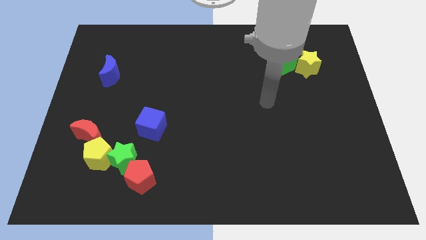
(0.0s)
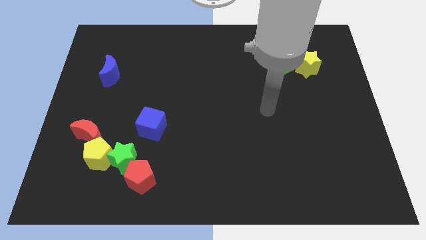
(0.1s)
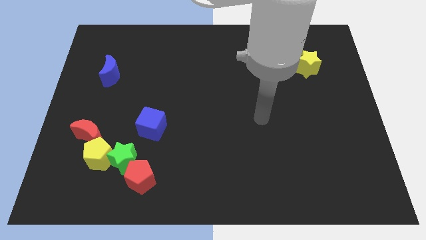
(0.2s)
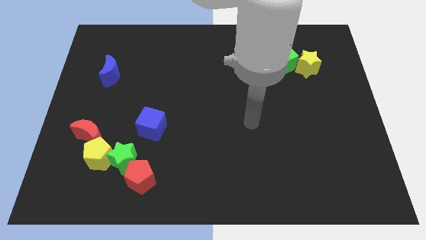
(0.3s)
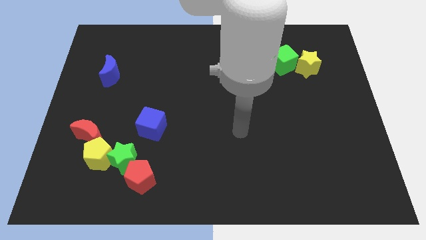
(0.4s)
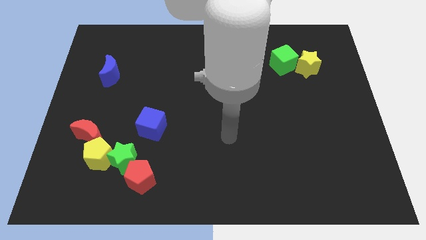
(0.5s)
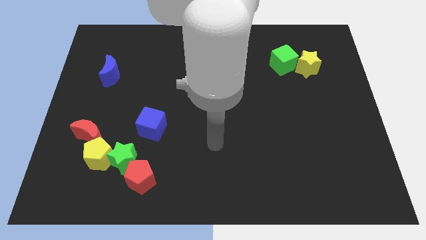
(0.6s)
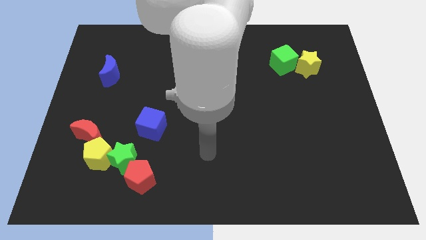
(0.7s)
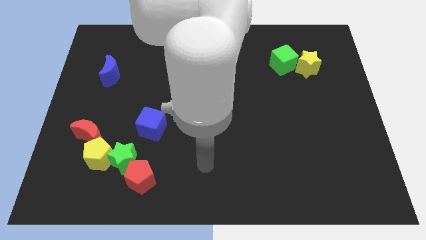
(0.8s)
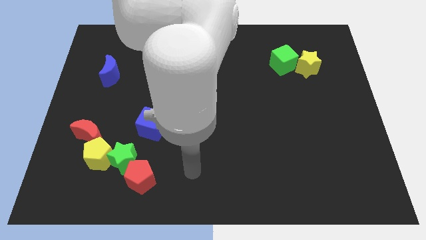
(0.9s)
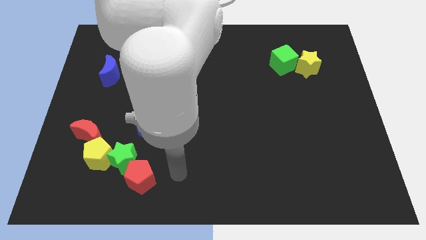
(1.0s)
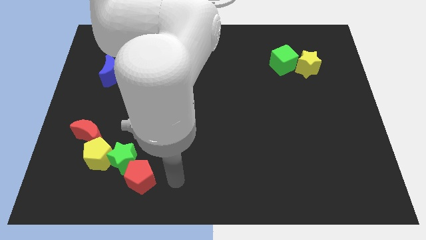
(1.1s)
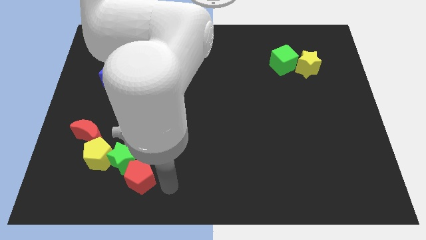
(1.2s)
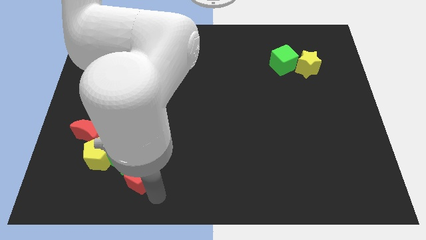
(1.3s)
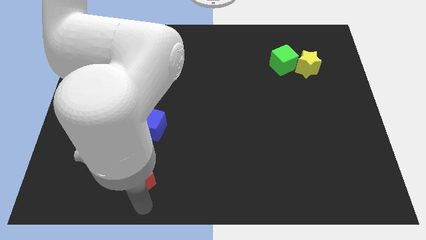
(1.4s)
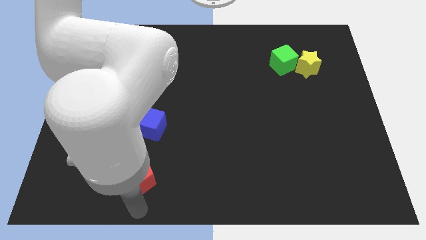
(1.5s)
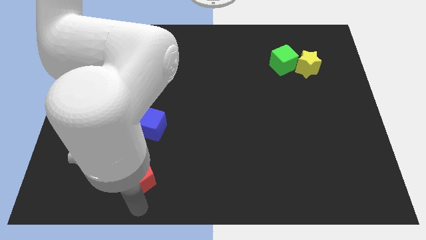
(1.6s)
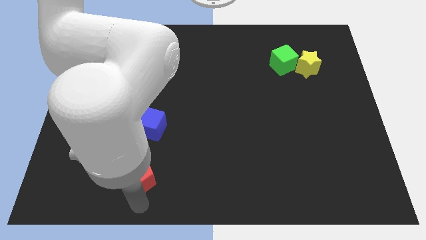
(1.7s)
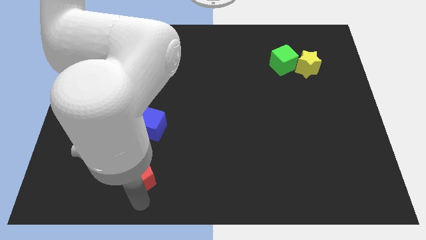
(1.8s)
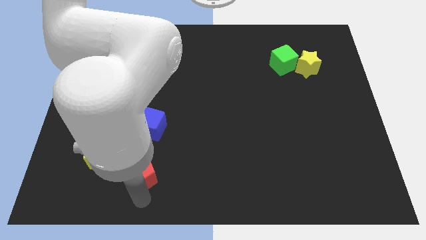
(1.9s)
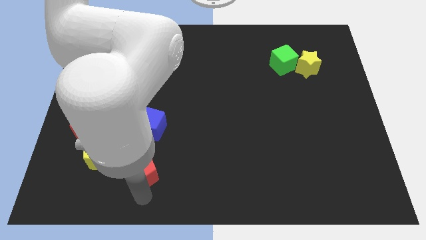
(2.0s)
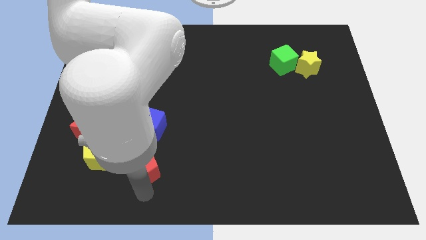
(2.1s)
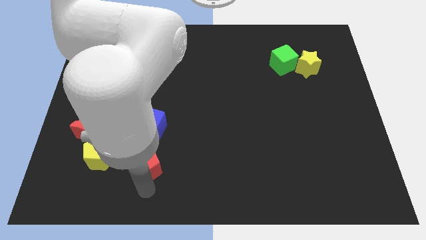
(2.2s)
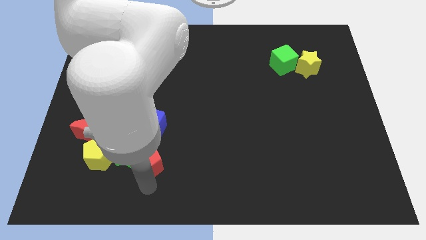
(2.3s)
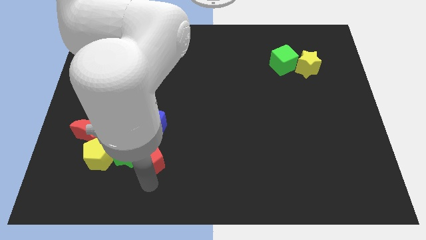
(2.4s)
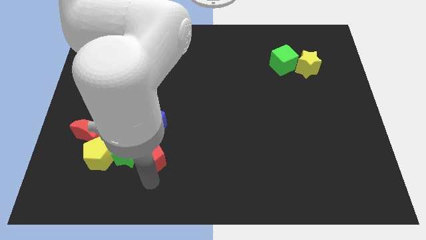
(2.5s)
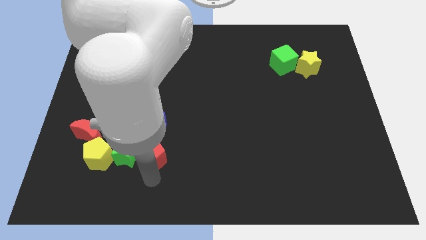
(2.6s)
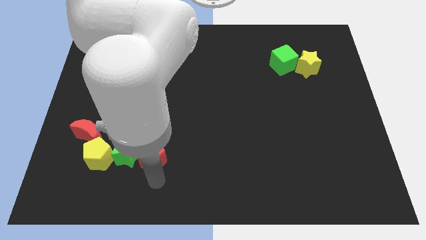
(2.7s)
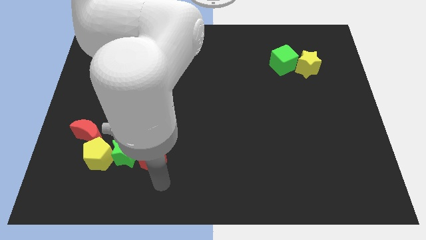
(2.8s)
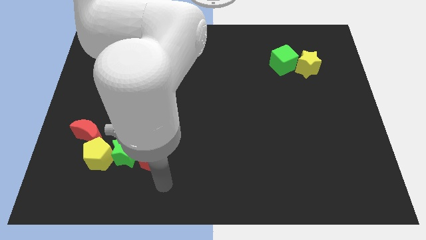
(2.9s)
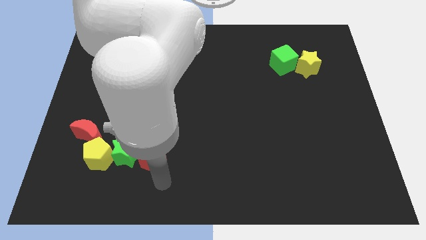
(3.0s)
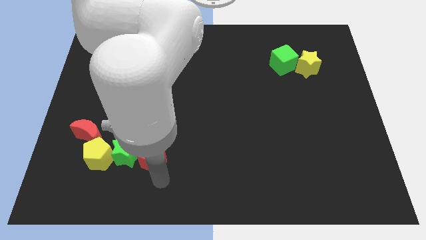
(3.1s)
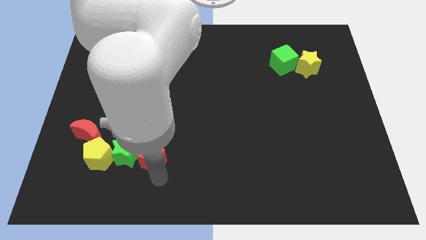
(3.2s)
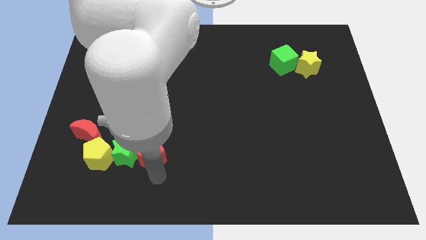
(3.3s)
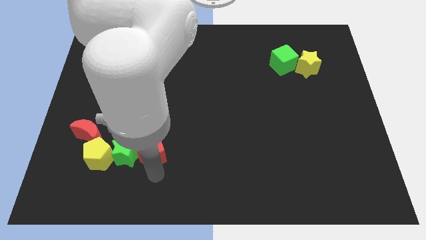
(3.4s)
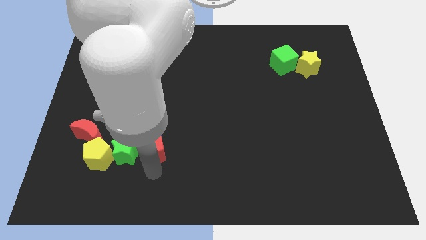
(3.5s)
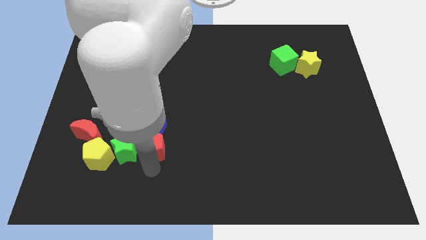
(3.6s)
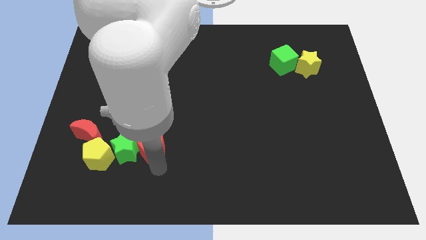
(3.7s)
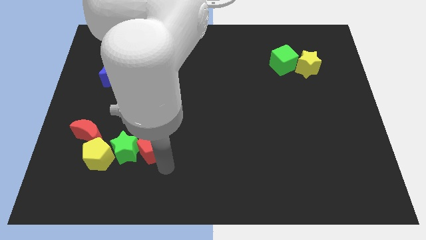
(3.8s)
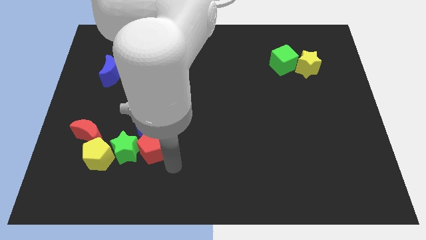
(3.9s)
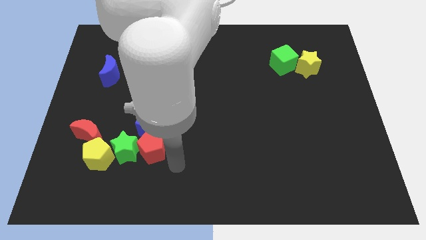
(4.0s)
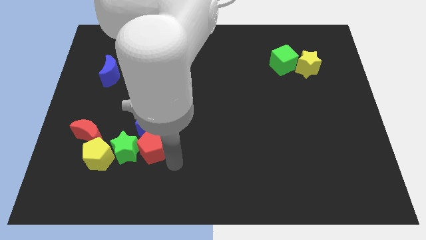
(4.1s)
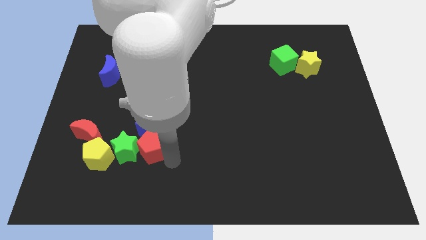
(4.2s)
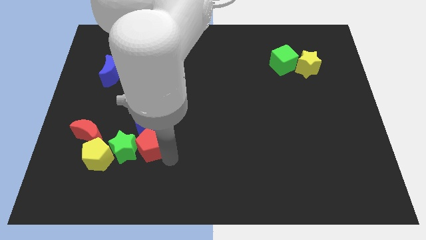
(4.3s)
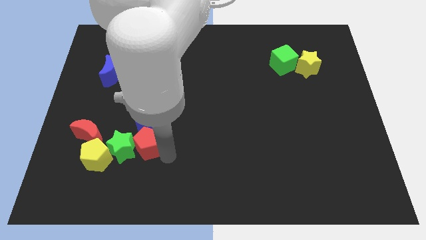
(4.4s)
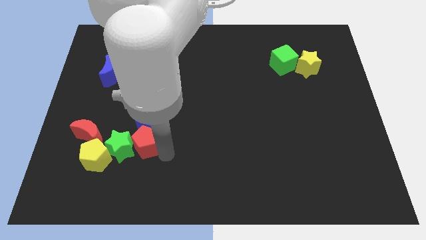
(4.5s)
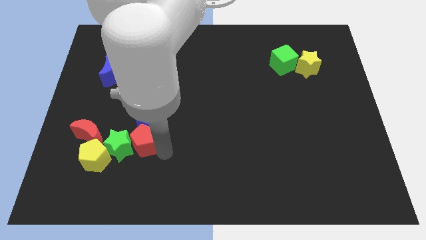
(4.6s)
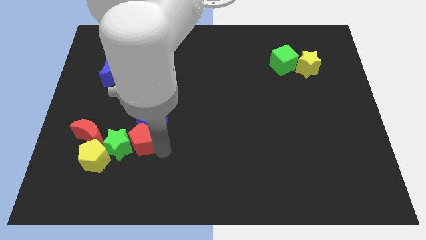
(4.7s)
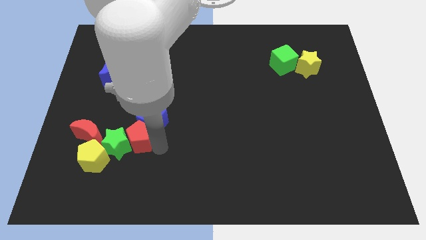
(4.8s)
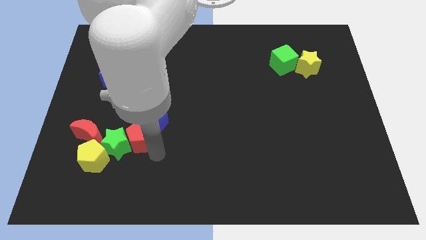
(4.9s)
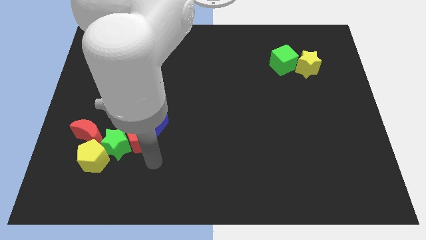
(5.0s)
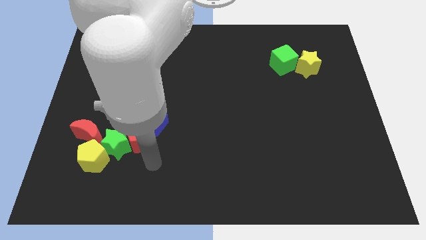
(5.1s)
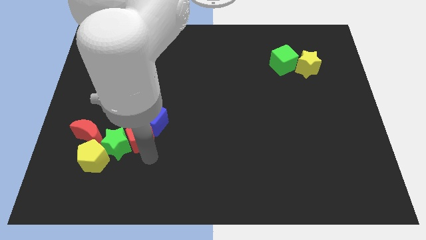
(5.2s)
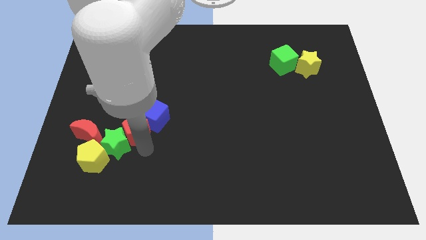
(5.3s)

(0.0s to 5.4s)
move the red pentagon above the green star

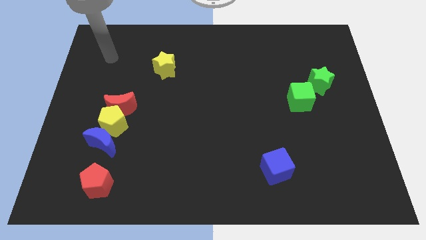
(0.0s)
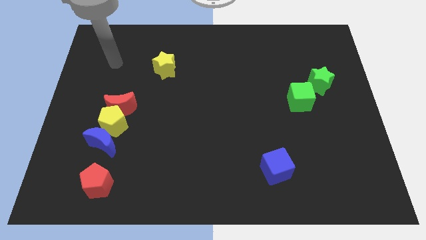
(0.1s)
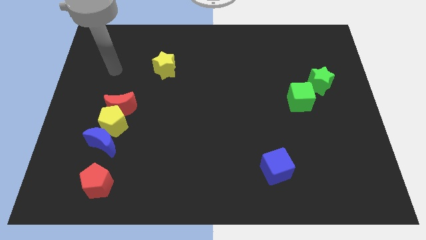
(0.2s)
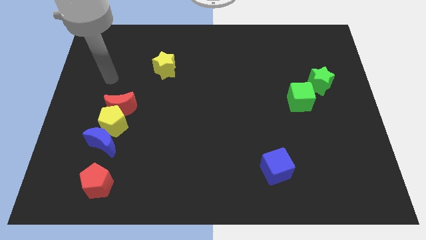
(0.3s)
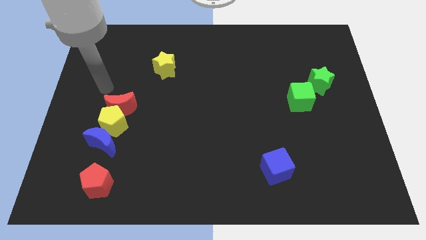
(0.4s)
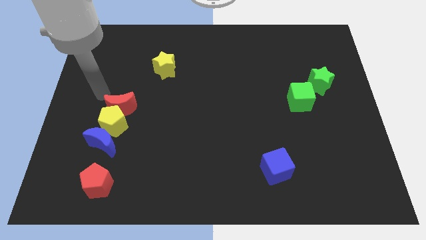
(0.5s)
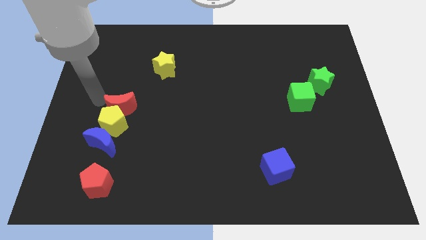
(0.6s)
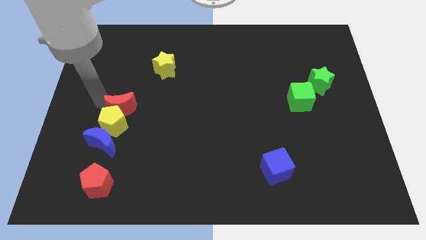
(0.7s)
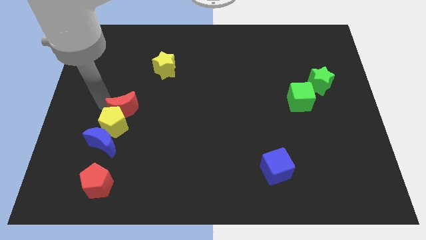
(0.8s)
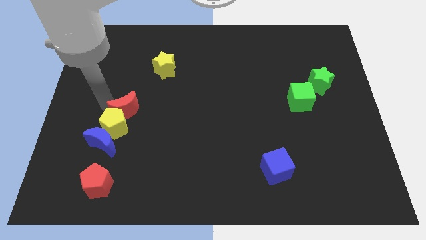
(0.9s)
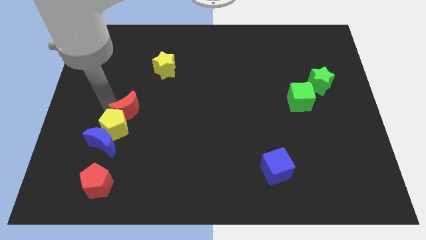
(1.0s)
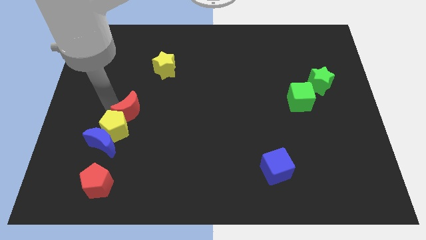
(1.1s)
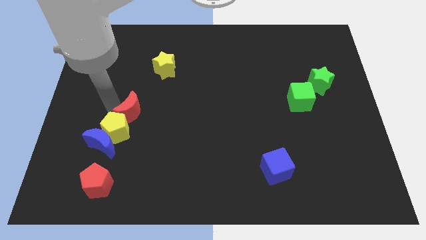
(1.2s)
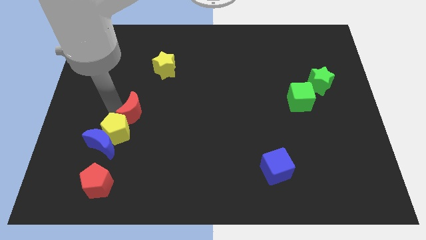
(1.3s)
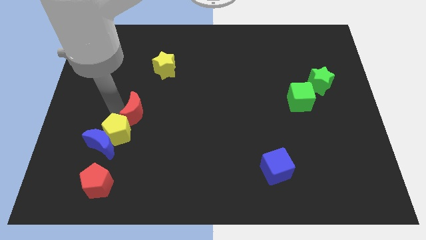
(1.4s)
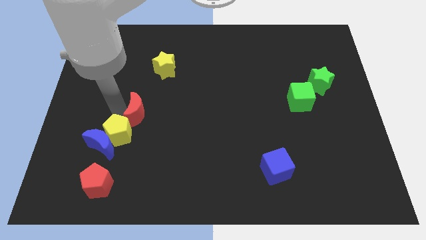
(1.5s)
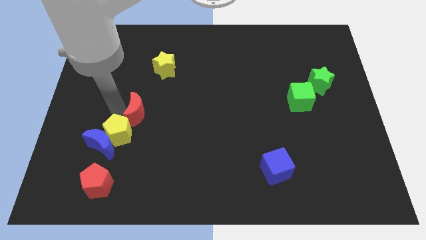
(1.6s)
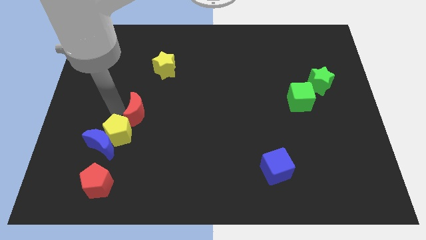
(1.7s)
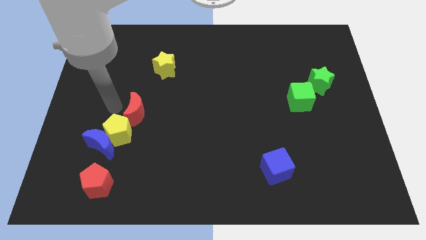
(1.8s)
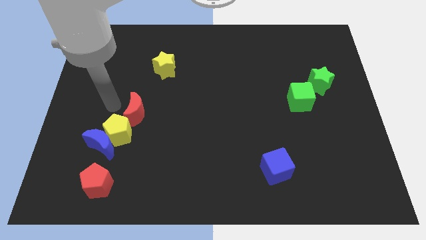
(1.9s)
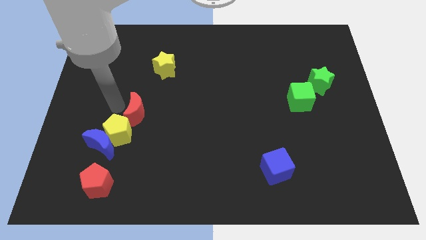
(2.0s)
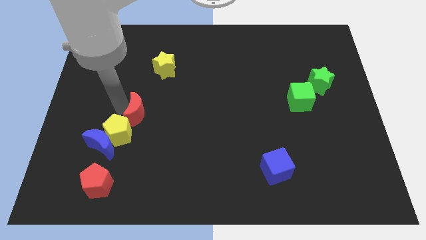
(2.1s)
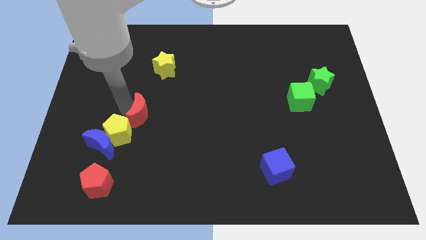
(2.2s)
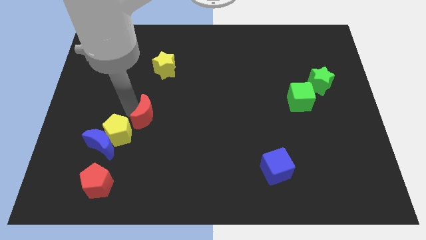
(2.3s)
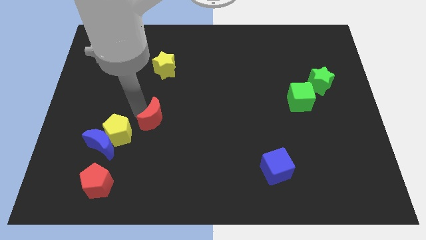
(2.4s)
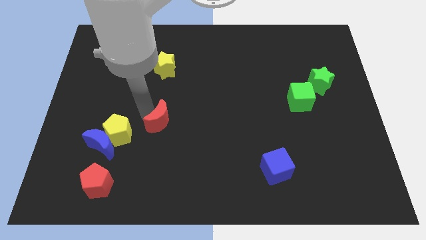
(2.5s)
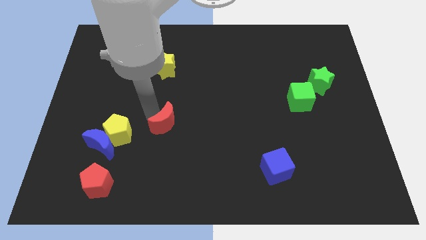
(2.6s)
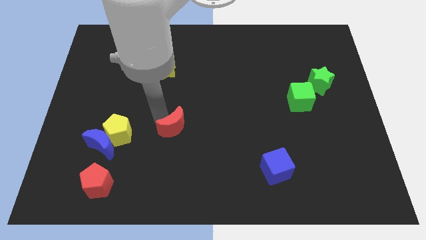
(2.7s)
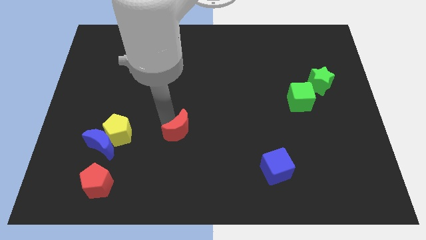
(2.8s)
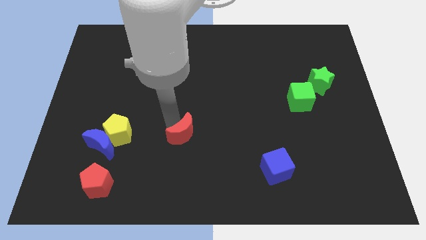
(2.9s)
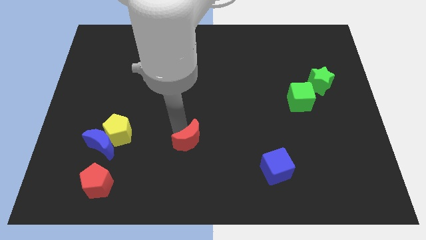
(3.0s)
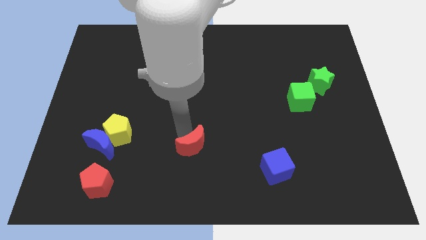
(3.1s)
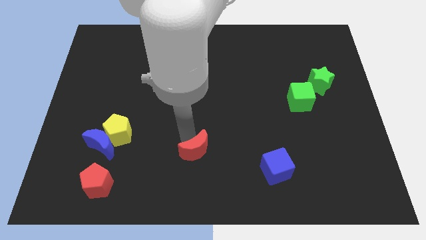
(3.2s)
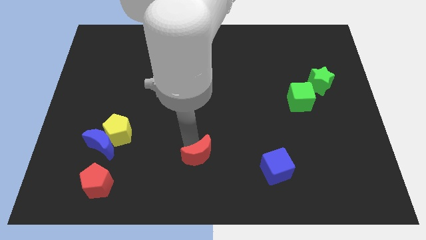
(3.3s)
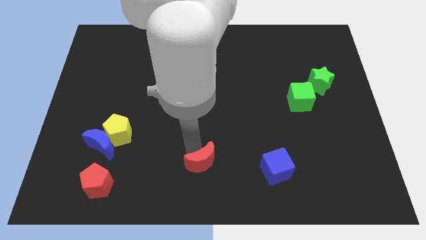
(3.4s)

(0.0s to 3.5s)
move the red moon to the left side of the blue cube
